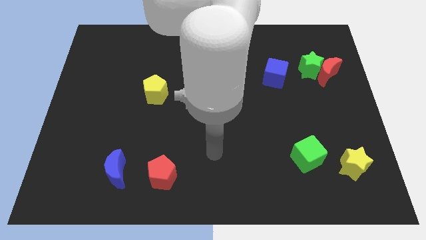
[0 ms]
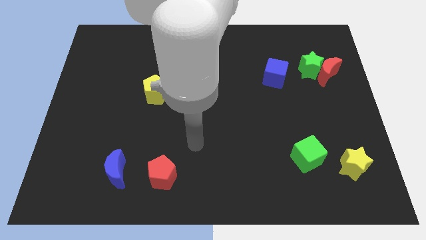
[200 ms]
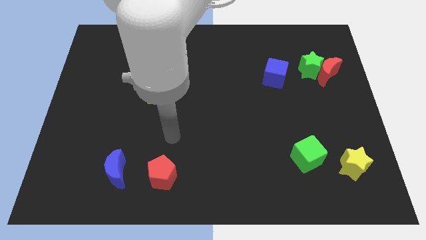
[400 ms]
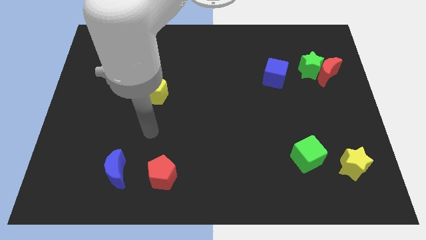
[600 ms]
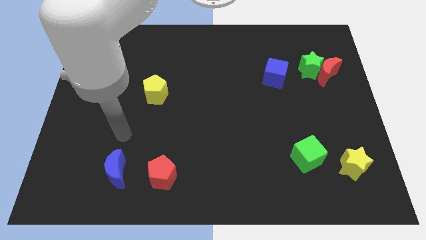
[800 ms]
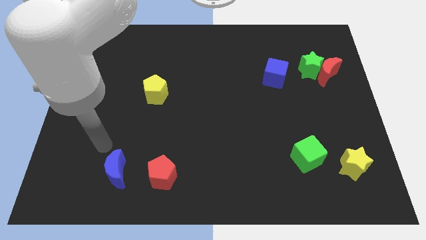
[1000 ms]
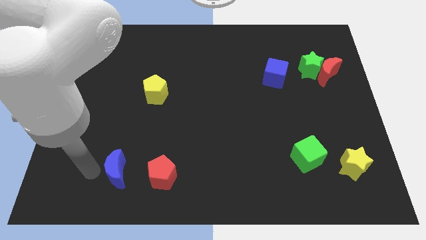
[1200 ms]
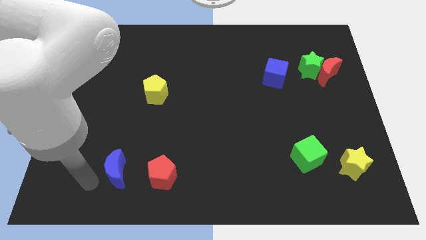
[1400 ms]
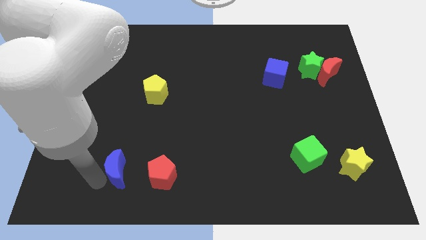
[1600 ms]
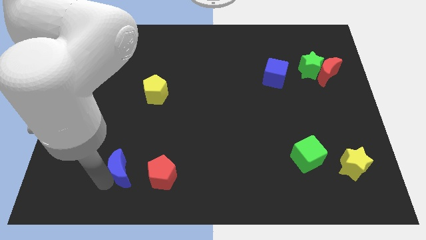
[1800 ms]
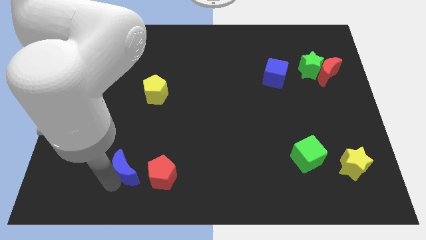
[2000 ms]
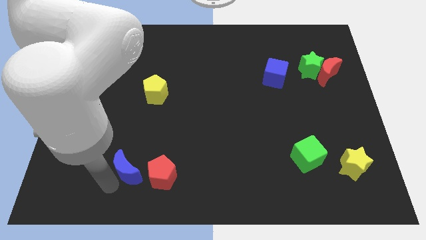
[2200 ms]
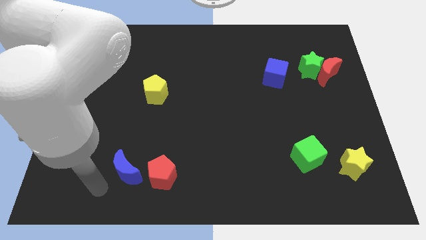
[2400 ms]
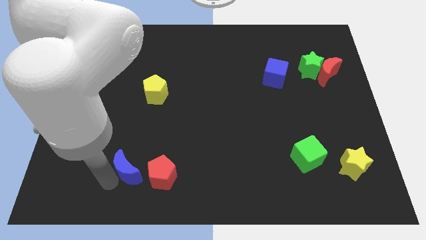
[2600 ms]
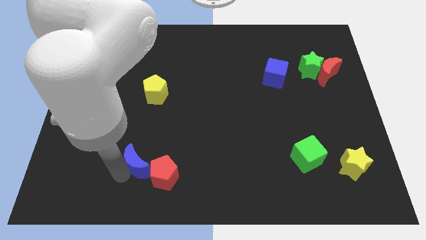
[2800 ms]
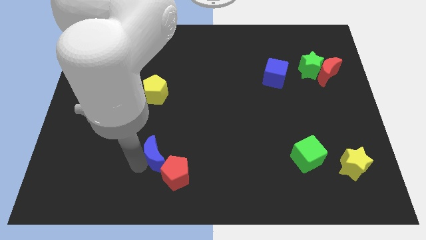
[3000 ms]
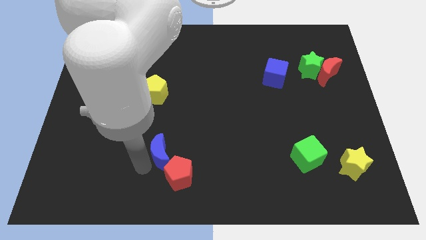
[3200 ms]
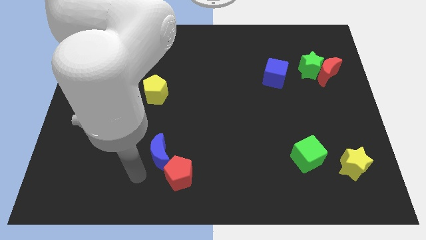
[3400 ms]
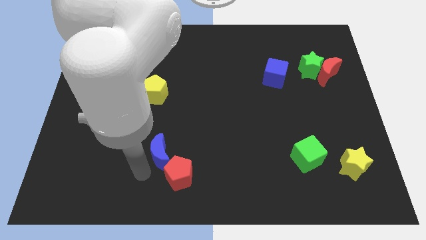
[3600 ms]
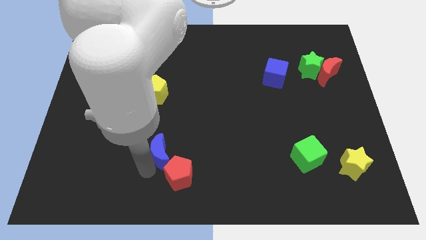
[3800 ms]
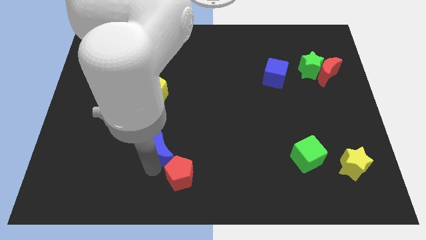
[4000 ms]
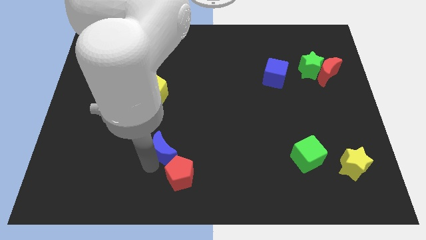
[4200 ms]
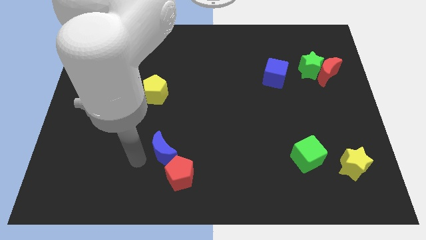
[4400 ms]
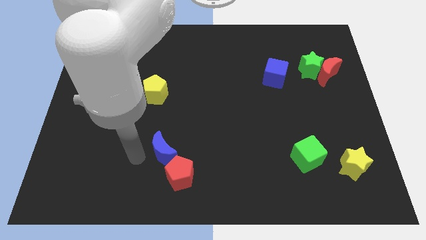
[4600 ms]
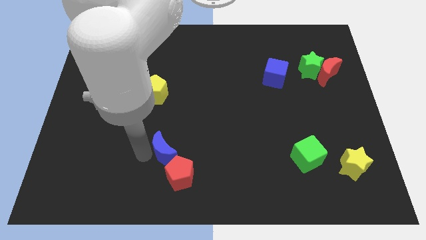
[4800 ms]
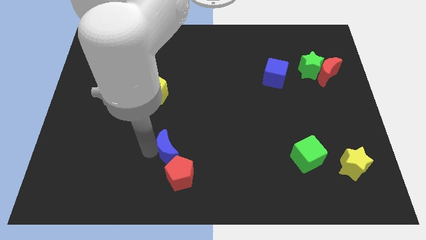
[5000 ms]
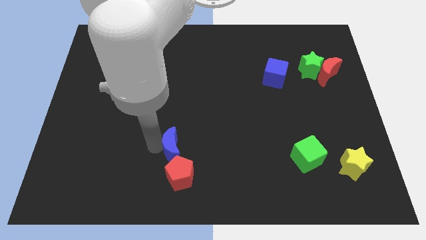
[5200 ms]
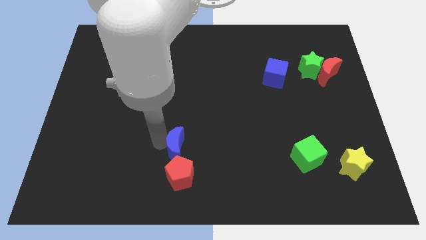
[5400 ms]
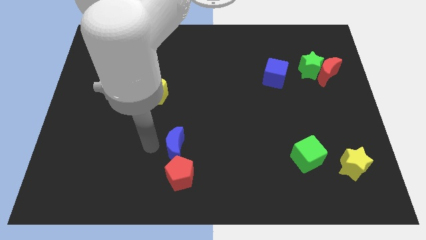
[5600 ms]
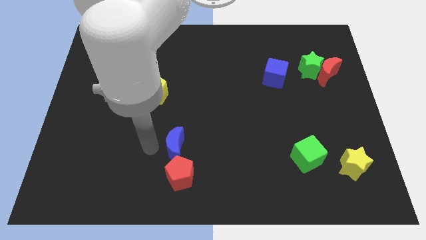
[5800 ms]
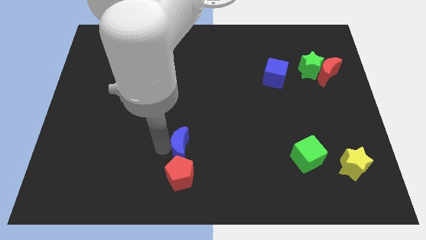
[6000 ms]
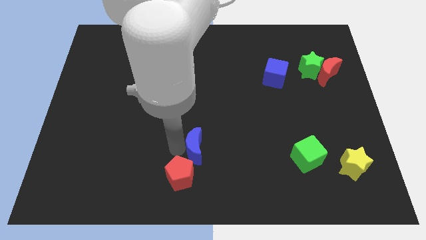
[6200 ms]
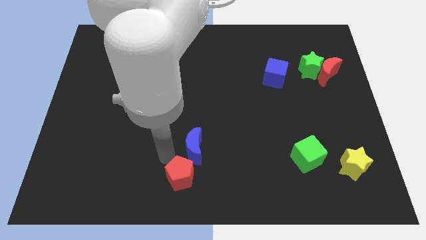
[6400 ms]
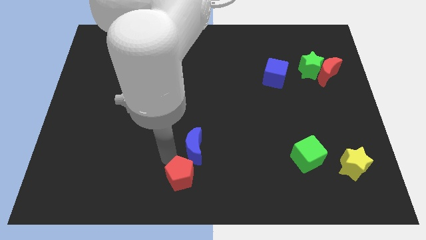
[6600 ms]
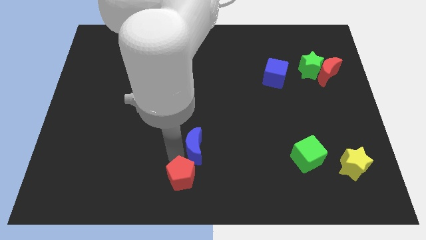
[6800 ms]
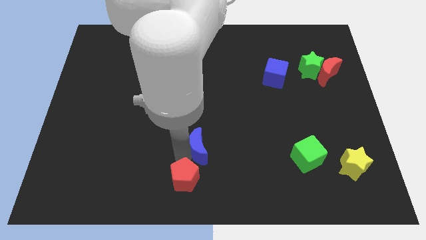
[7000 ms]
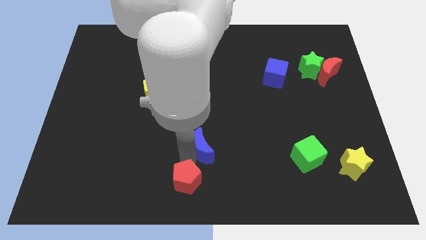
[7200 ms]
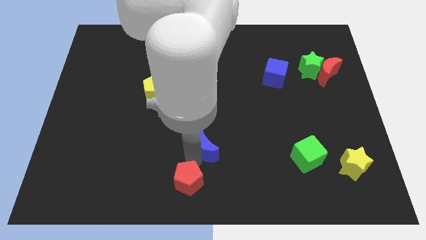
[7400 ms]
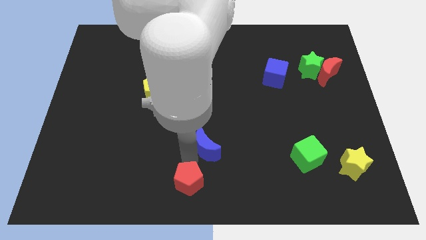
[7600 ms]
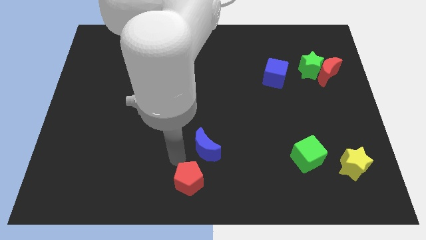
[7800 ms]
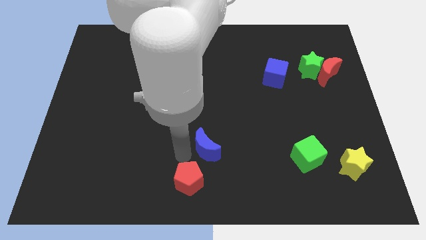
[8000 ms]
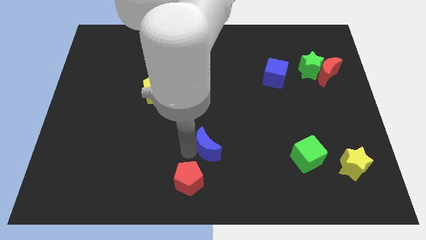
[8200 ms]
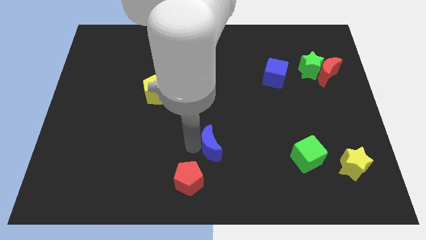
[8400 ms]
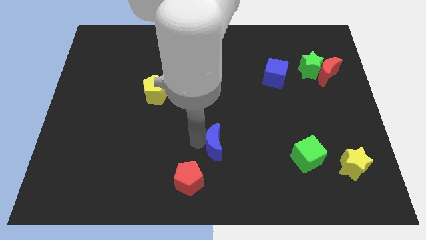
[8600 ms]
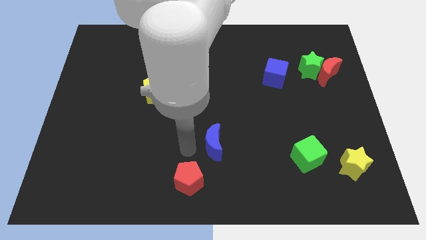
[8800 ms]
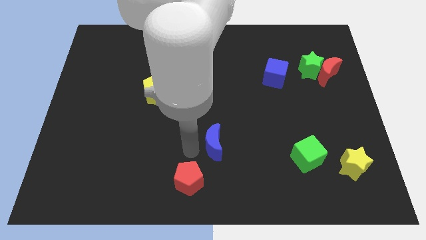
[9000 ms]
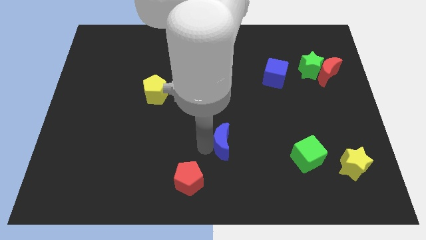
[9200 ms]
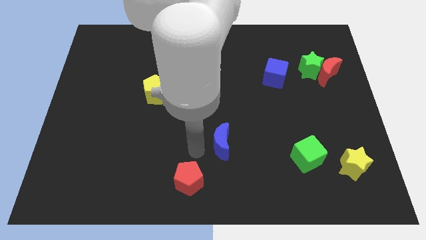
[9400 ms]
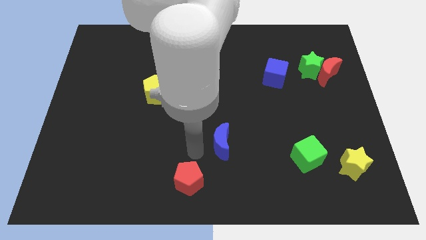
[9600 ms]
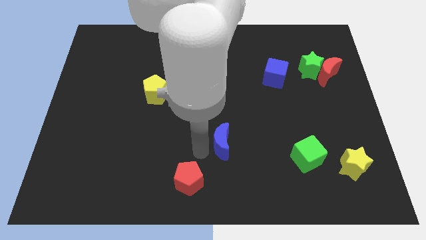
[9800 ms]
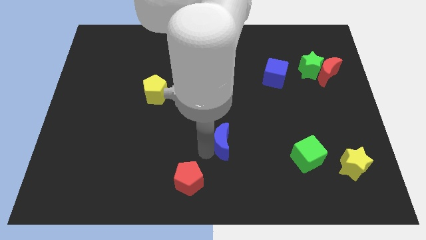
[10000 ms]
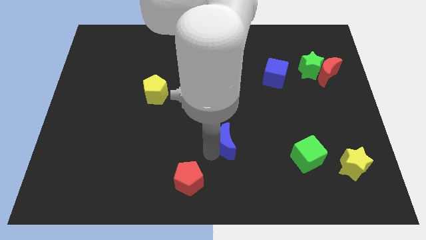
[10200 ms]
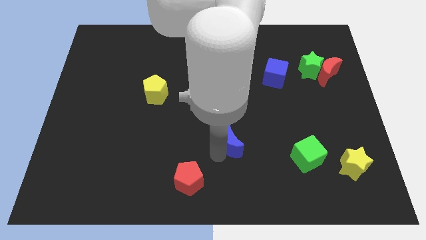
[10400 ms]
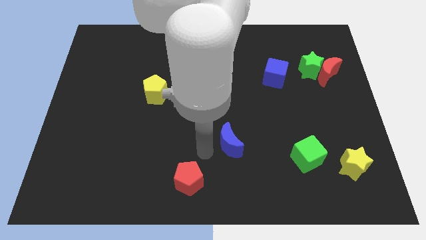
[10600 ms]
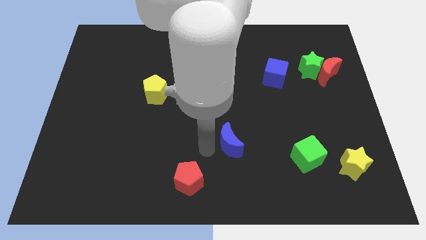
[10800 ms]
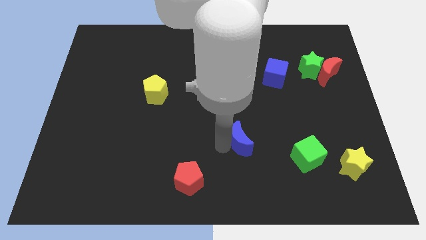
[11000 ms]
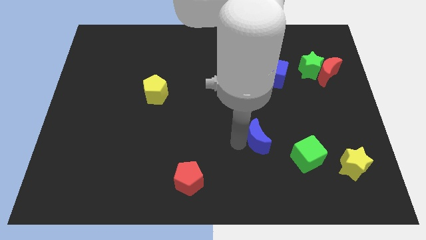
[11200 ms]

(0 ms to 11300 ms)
slide the blue moon to the top left side of the green cube

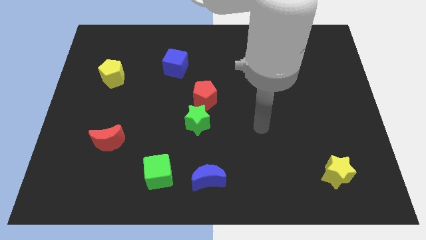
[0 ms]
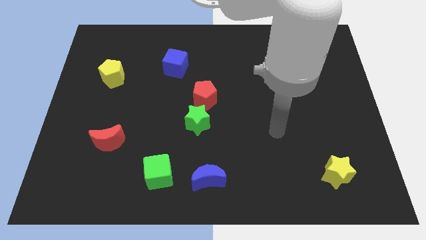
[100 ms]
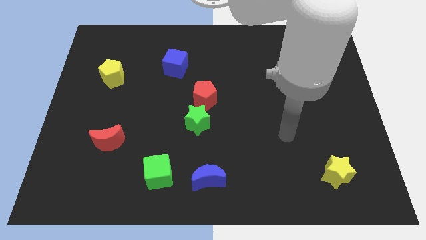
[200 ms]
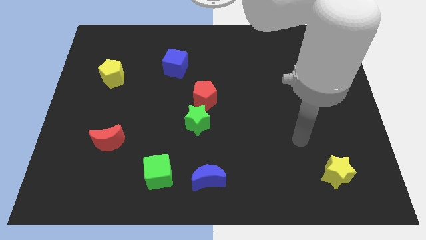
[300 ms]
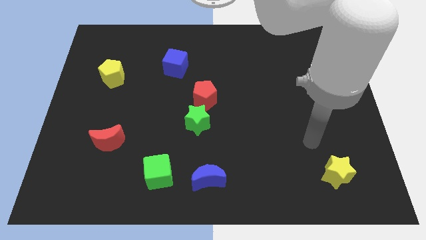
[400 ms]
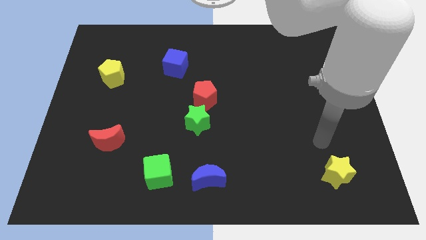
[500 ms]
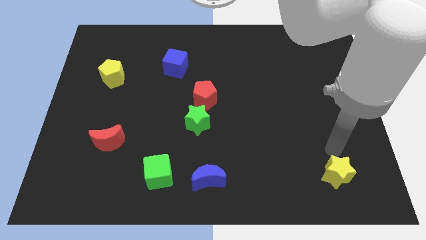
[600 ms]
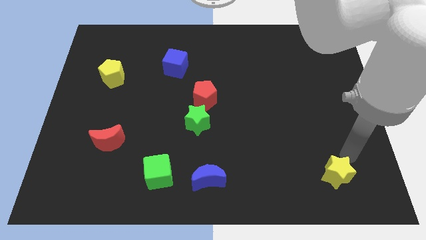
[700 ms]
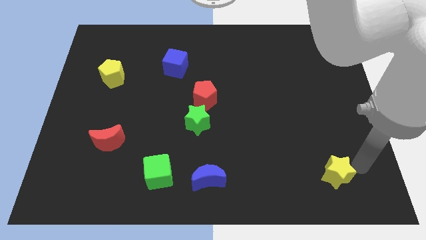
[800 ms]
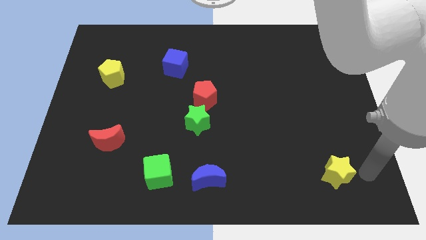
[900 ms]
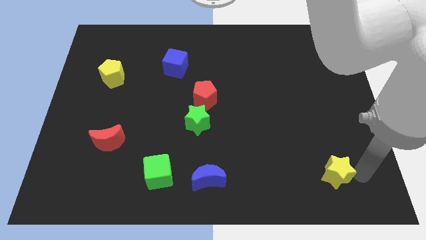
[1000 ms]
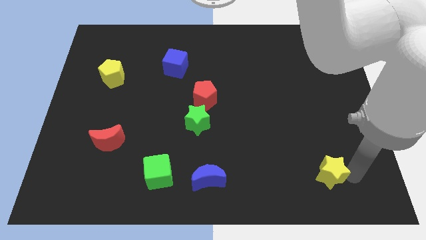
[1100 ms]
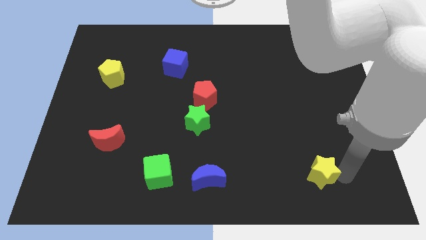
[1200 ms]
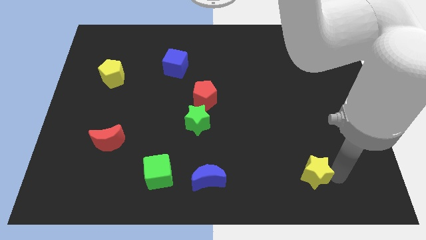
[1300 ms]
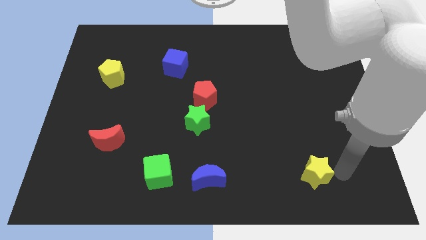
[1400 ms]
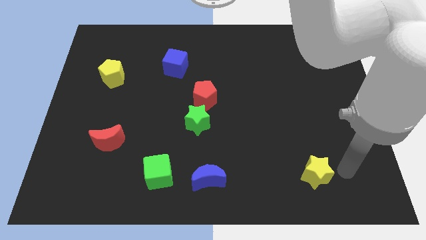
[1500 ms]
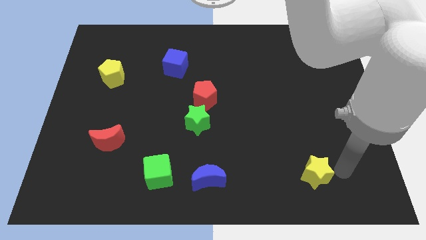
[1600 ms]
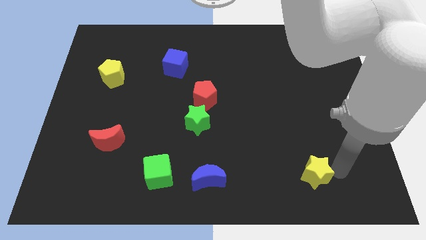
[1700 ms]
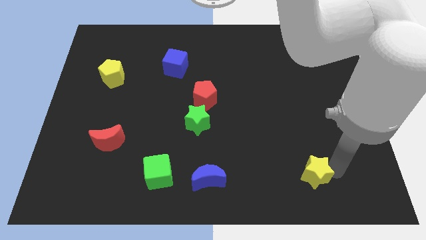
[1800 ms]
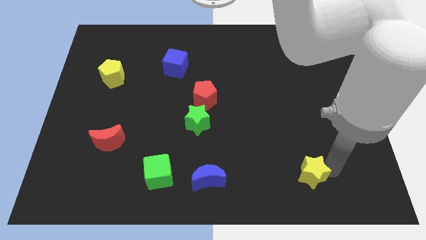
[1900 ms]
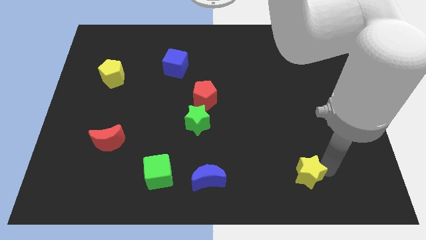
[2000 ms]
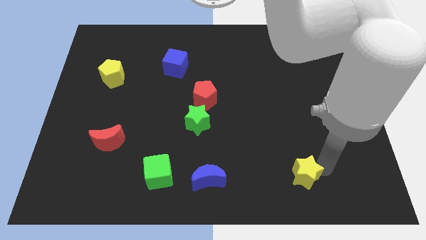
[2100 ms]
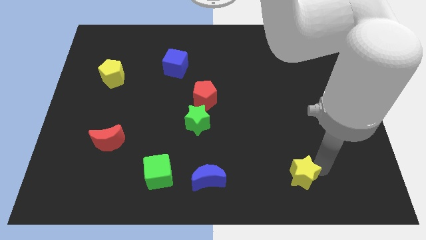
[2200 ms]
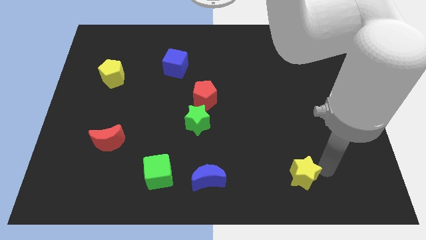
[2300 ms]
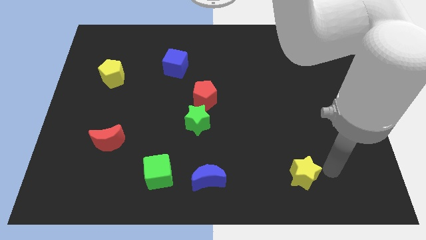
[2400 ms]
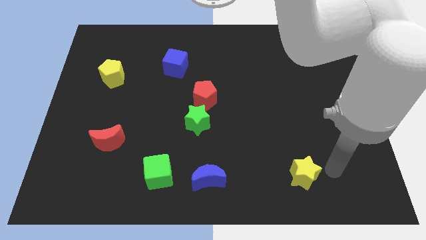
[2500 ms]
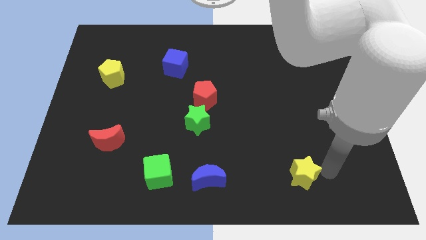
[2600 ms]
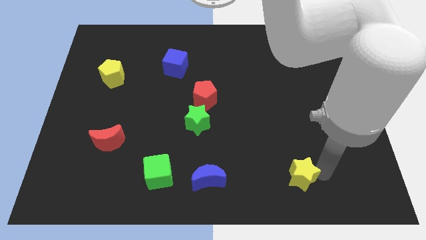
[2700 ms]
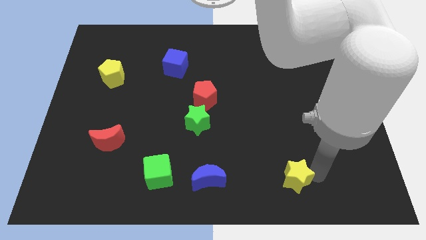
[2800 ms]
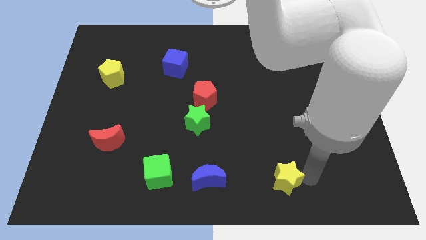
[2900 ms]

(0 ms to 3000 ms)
put the yellow star right of the blue moon
